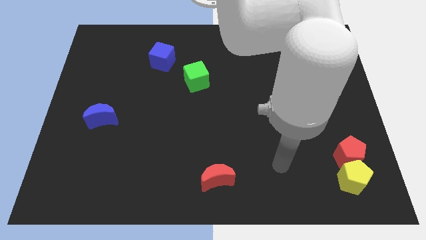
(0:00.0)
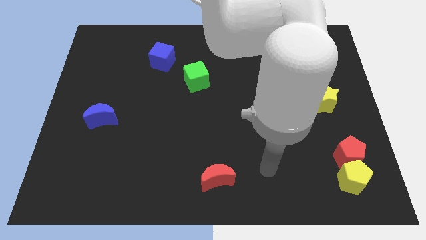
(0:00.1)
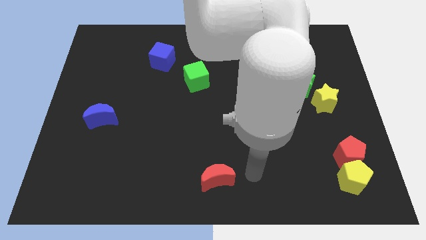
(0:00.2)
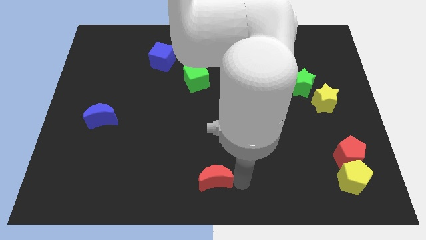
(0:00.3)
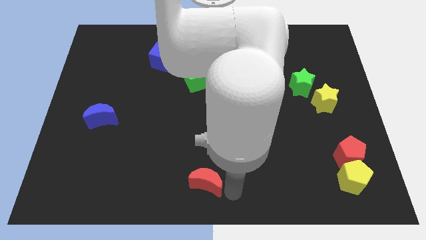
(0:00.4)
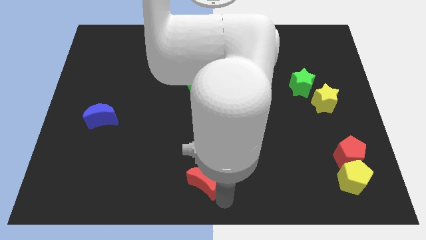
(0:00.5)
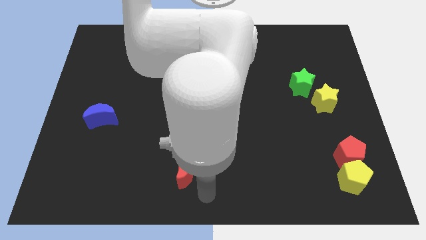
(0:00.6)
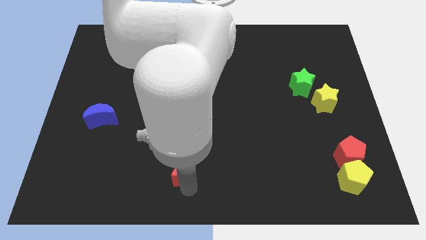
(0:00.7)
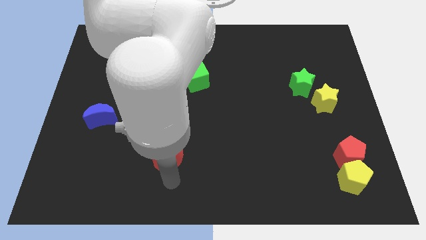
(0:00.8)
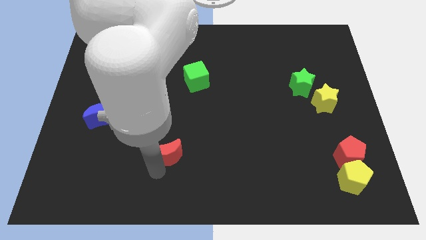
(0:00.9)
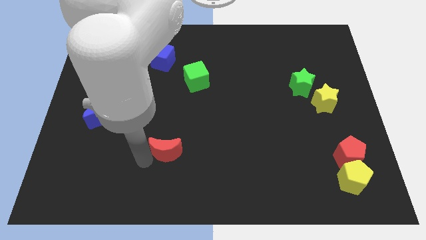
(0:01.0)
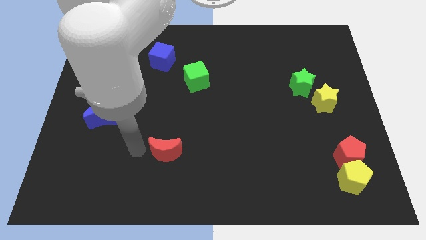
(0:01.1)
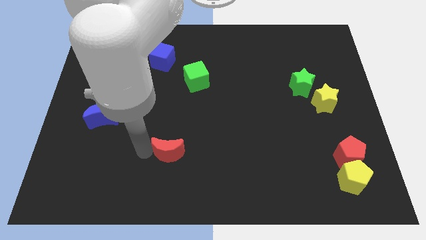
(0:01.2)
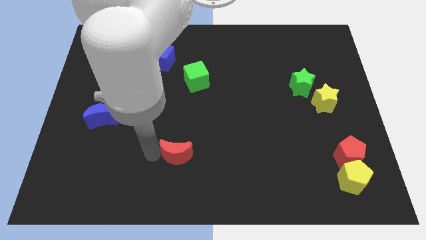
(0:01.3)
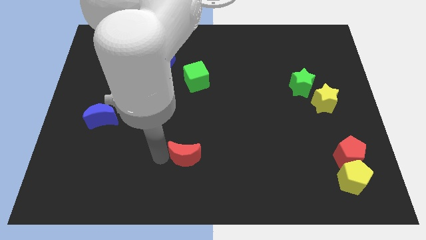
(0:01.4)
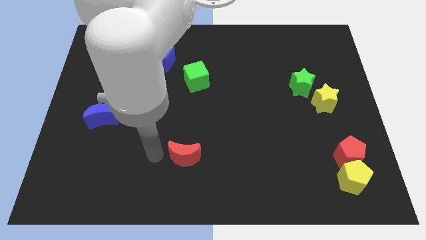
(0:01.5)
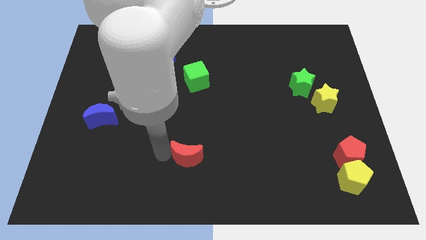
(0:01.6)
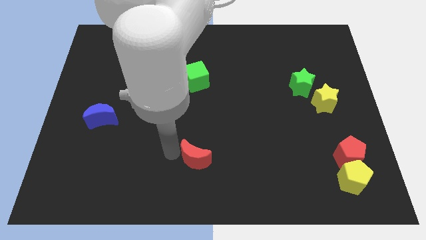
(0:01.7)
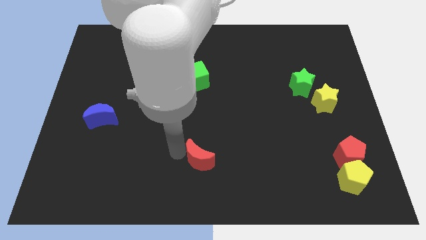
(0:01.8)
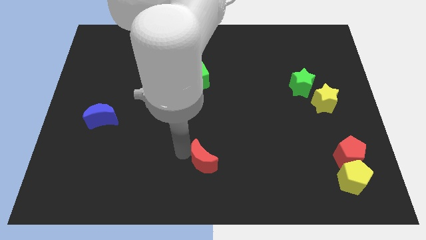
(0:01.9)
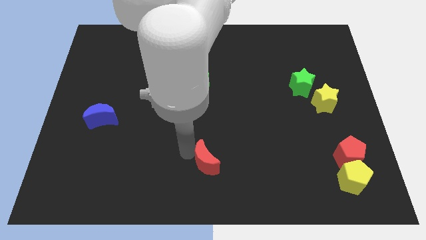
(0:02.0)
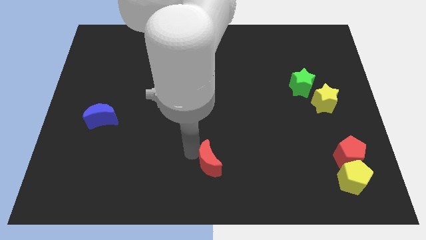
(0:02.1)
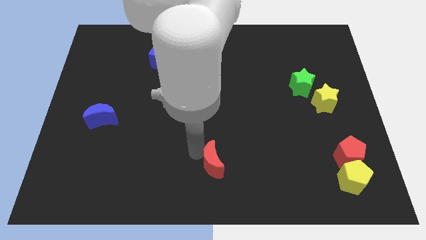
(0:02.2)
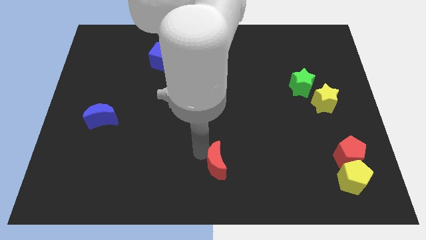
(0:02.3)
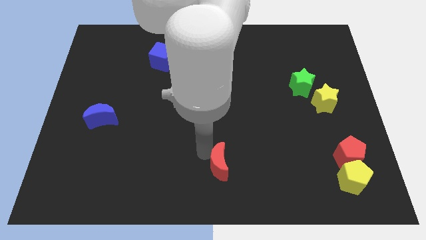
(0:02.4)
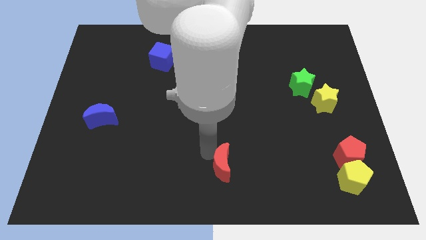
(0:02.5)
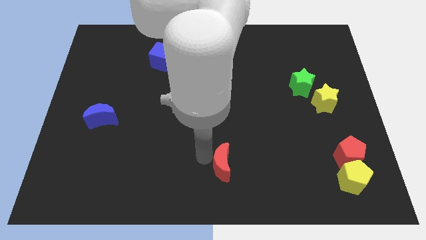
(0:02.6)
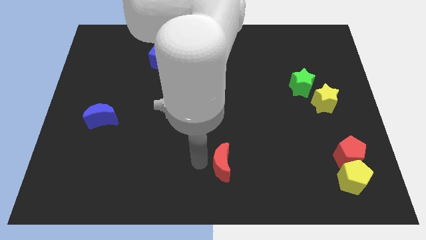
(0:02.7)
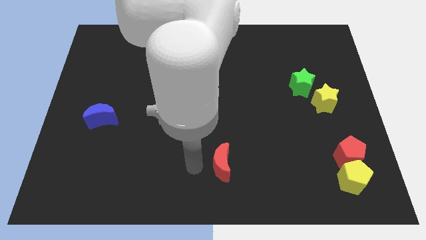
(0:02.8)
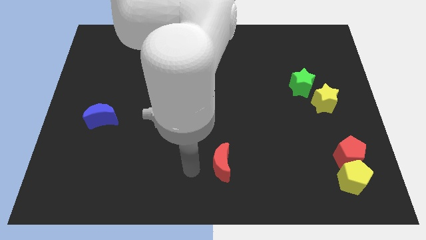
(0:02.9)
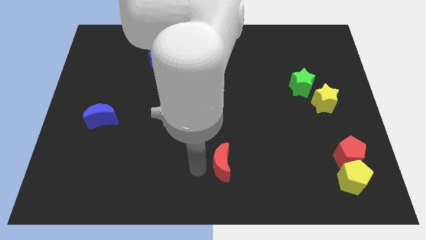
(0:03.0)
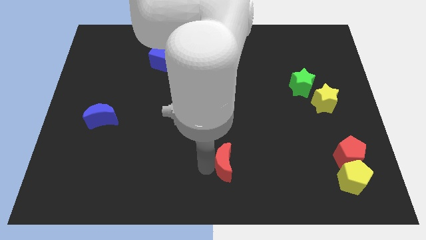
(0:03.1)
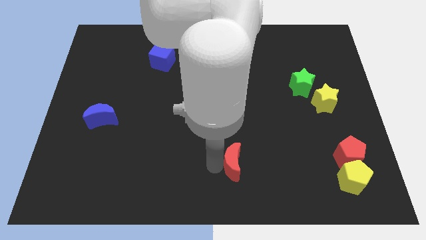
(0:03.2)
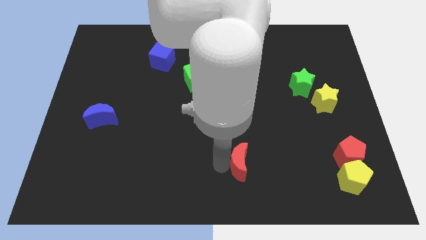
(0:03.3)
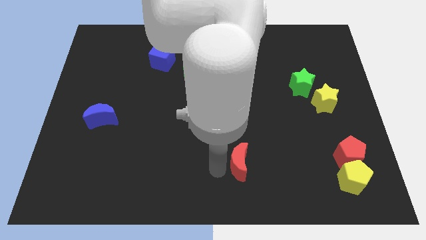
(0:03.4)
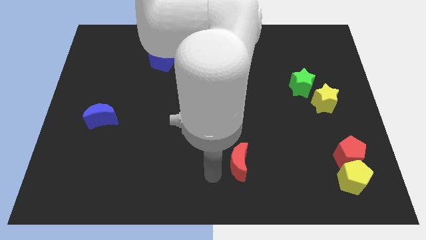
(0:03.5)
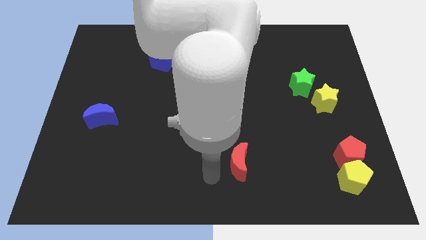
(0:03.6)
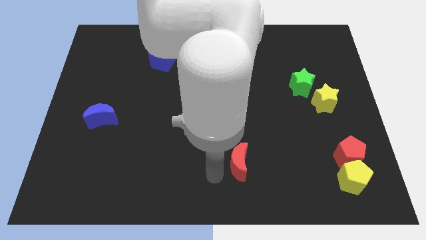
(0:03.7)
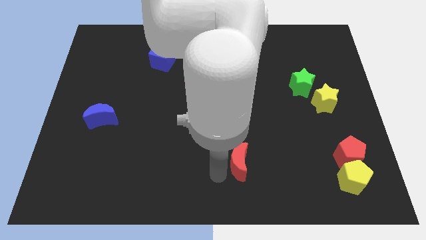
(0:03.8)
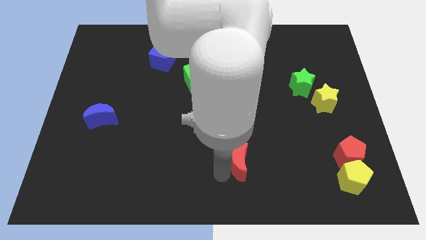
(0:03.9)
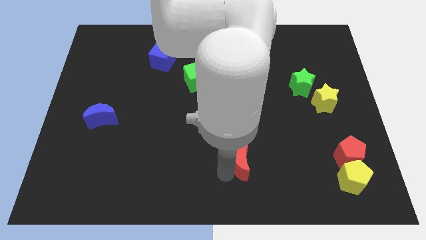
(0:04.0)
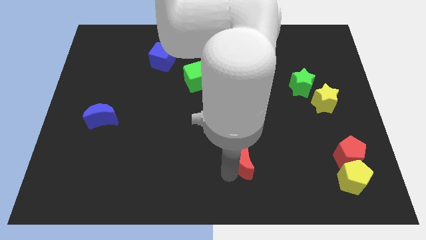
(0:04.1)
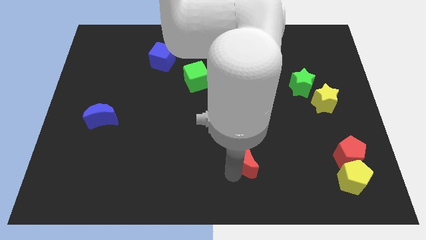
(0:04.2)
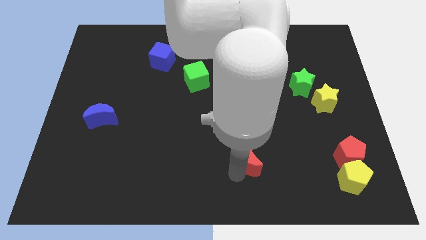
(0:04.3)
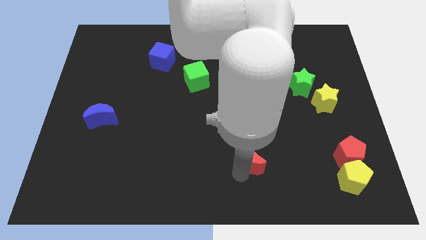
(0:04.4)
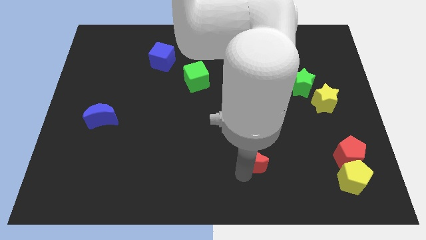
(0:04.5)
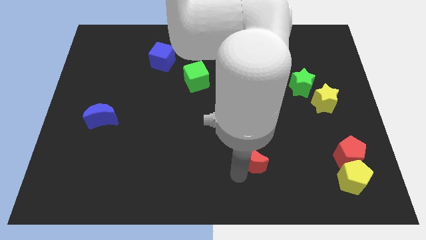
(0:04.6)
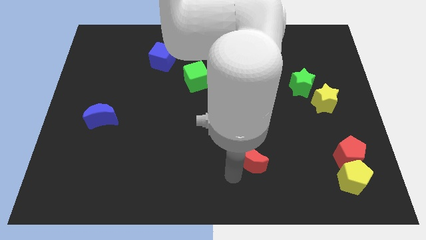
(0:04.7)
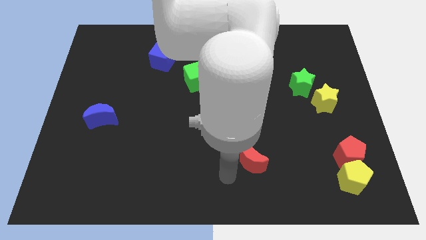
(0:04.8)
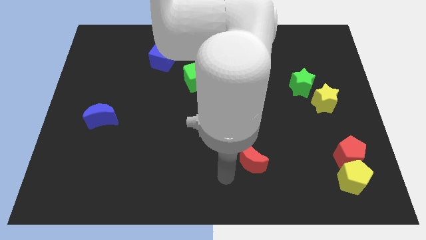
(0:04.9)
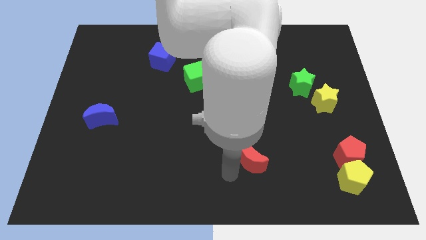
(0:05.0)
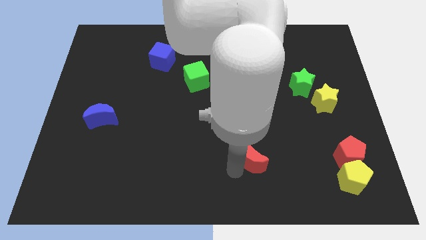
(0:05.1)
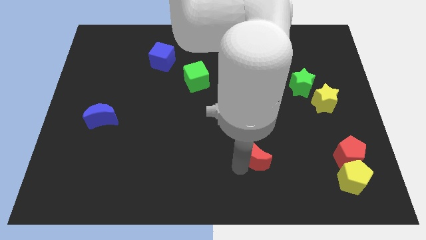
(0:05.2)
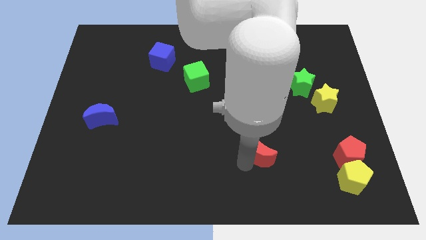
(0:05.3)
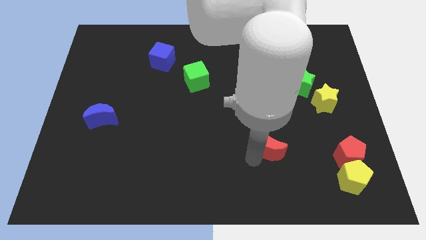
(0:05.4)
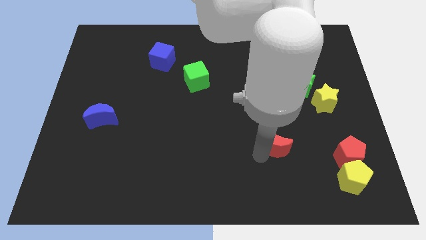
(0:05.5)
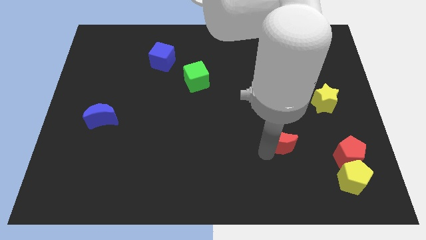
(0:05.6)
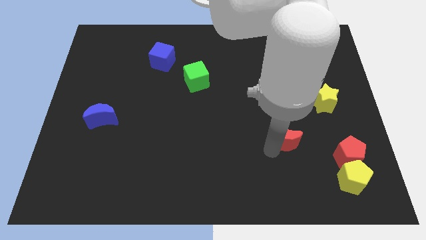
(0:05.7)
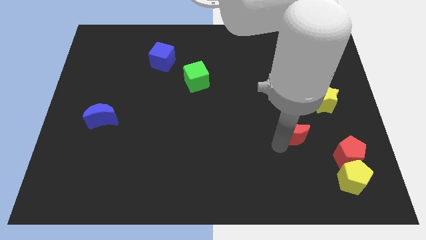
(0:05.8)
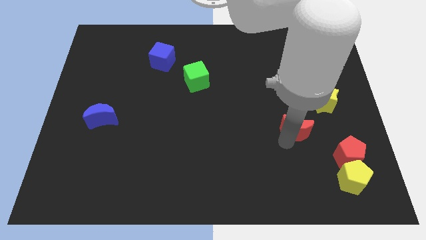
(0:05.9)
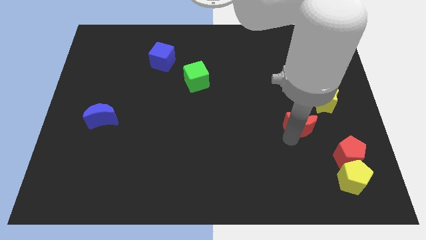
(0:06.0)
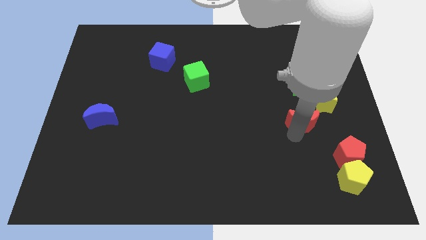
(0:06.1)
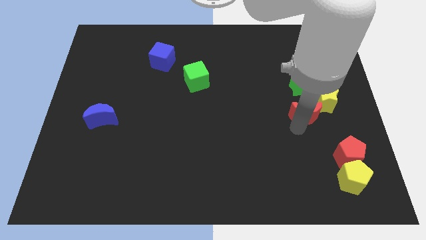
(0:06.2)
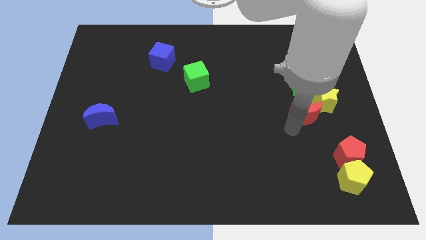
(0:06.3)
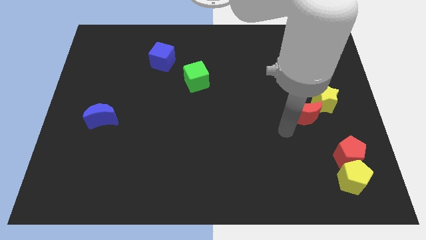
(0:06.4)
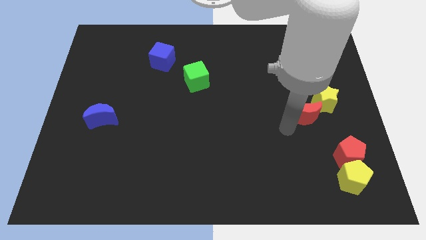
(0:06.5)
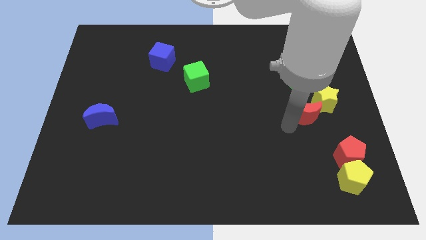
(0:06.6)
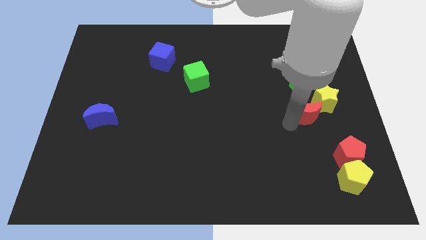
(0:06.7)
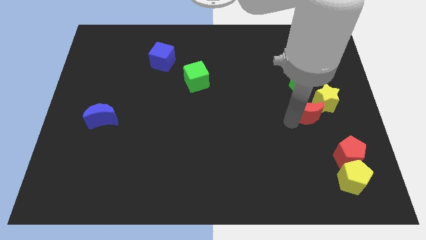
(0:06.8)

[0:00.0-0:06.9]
slide the red moon next to the yellow star
